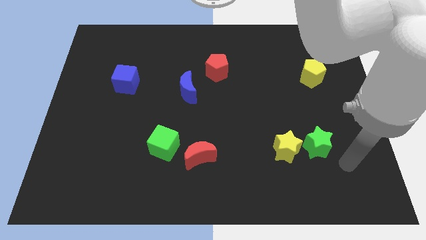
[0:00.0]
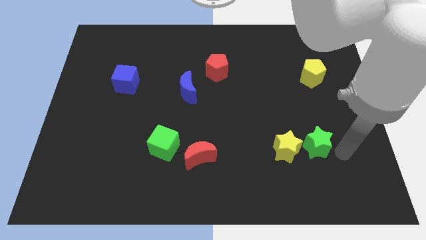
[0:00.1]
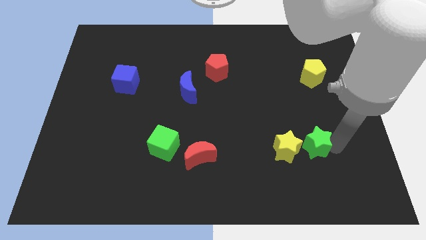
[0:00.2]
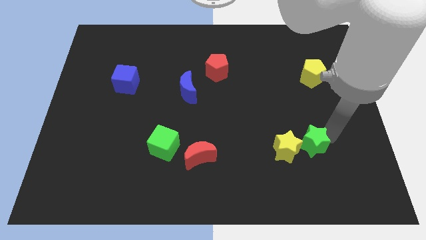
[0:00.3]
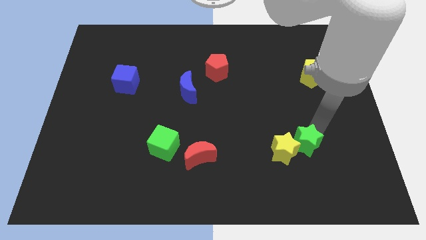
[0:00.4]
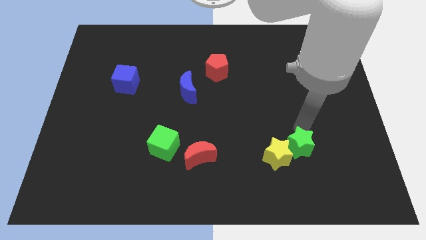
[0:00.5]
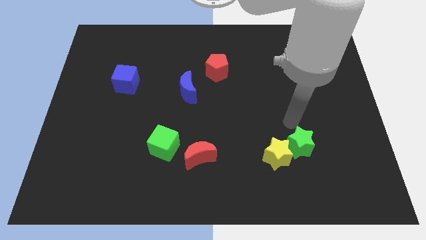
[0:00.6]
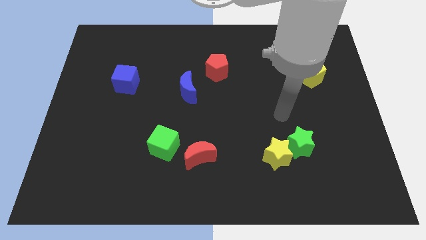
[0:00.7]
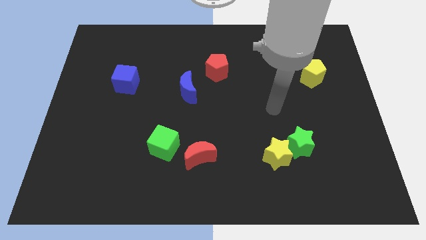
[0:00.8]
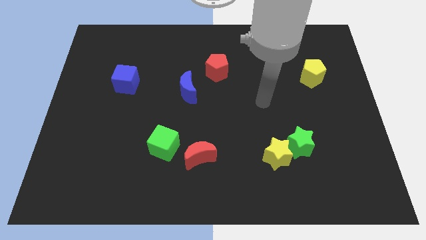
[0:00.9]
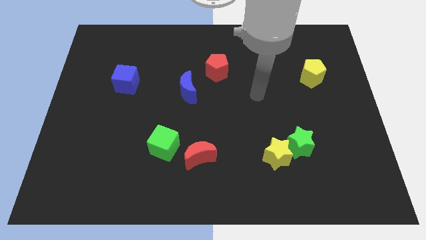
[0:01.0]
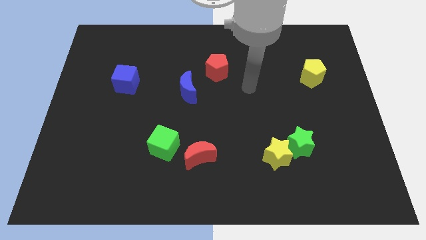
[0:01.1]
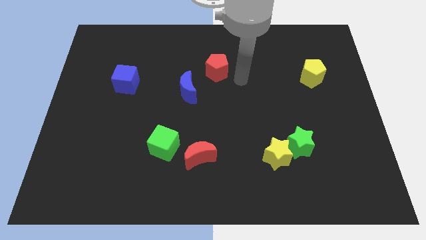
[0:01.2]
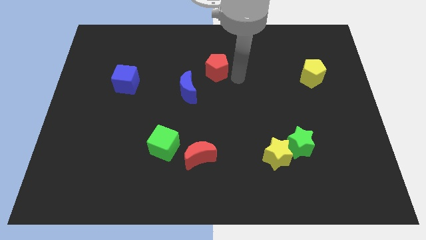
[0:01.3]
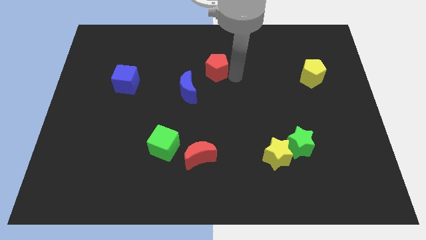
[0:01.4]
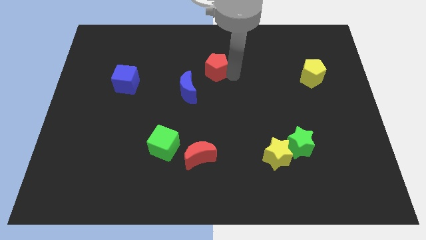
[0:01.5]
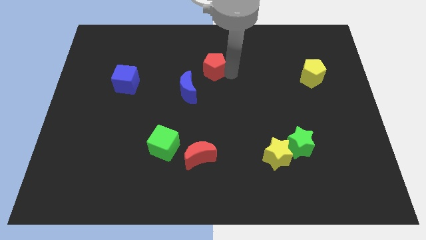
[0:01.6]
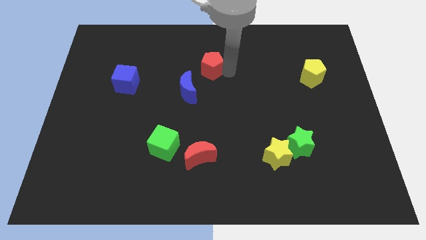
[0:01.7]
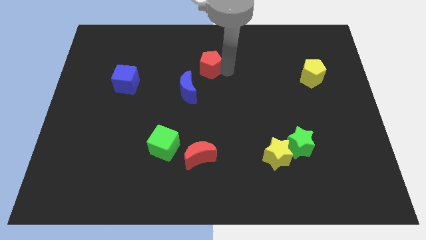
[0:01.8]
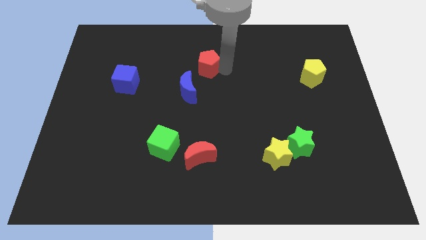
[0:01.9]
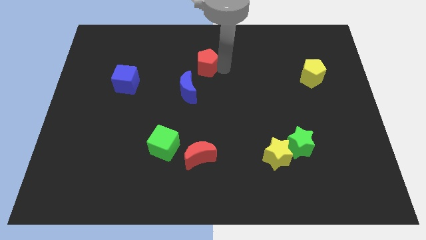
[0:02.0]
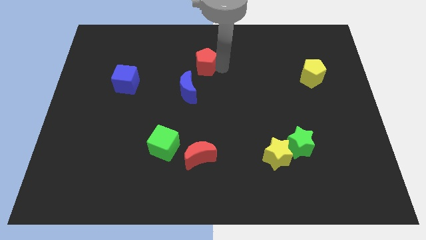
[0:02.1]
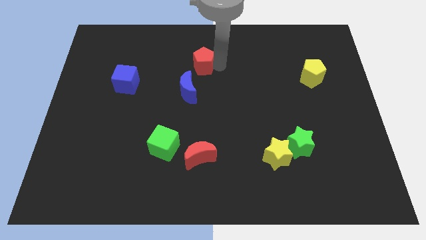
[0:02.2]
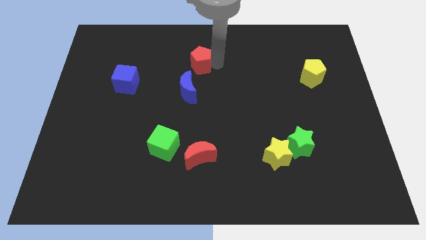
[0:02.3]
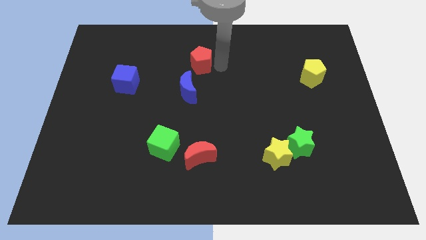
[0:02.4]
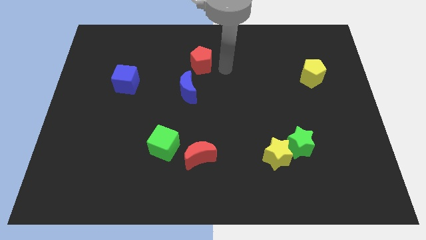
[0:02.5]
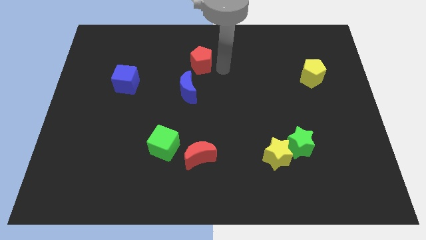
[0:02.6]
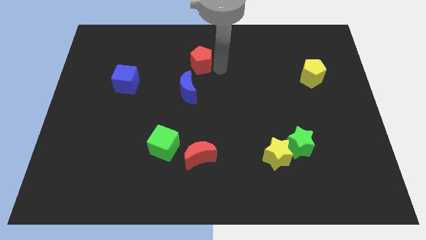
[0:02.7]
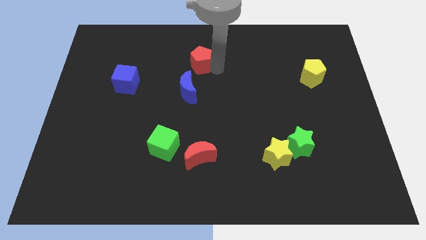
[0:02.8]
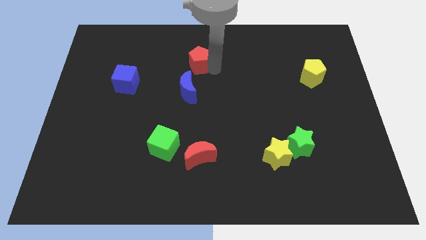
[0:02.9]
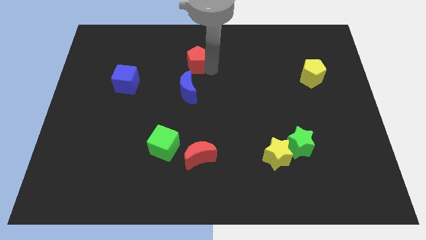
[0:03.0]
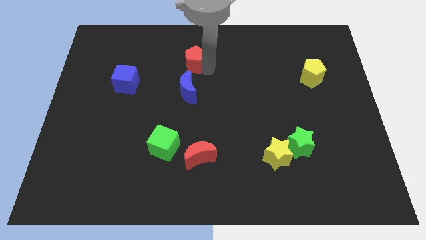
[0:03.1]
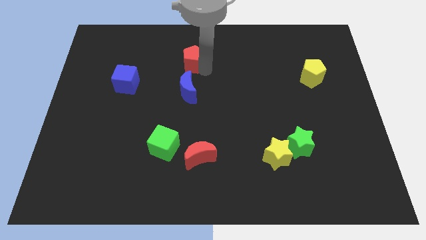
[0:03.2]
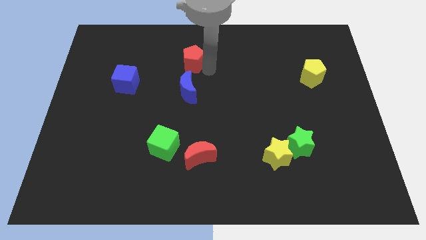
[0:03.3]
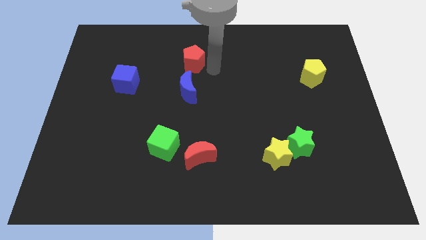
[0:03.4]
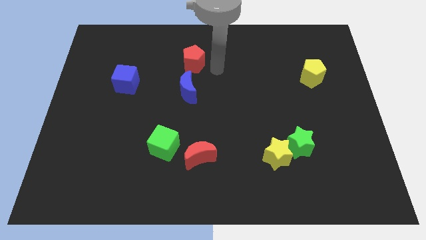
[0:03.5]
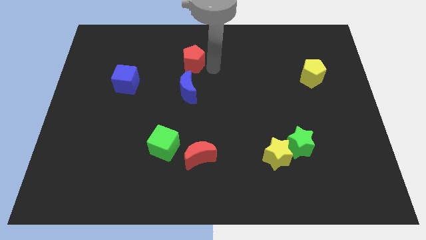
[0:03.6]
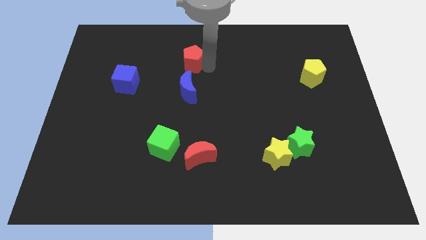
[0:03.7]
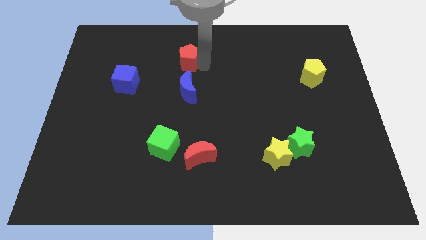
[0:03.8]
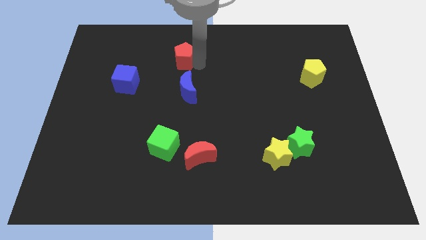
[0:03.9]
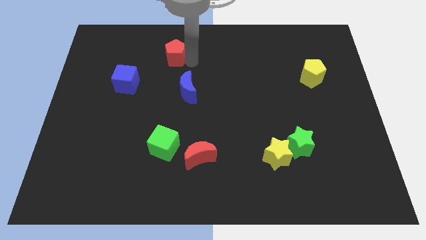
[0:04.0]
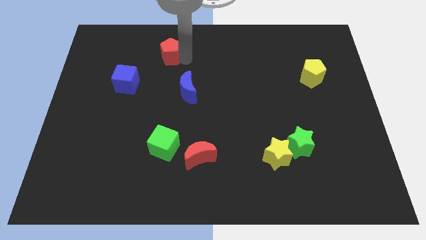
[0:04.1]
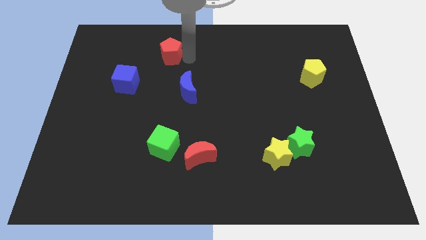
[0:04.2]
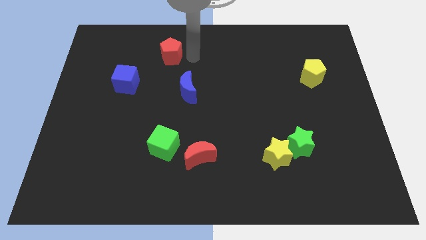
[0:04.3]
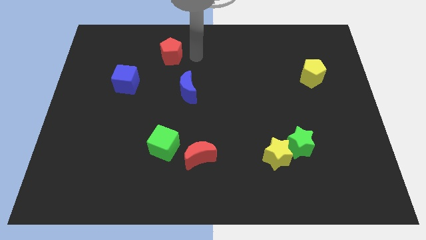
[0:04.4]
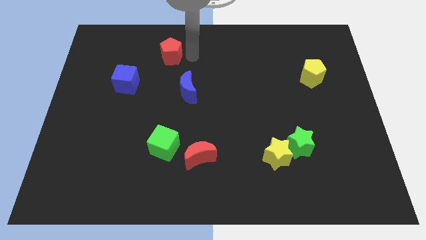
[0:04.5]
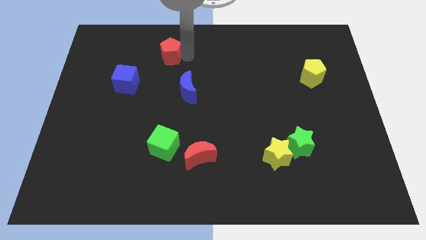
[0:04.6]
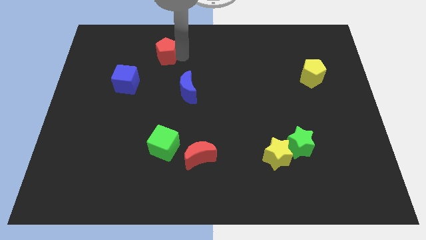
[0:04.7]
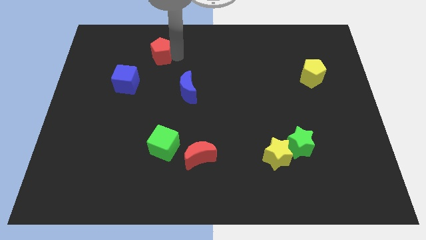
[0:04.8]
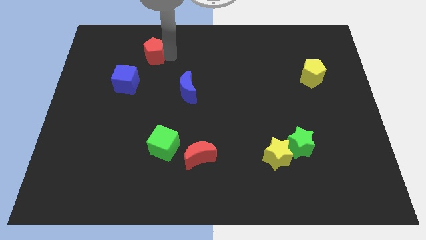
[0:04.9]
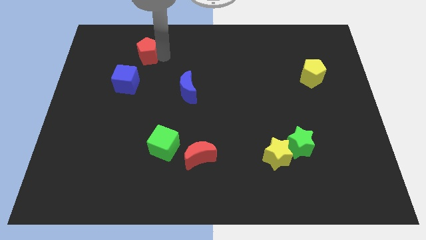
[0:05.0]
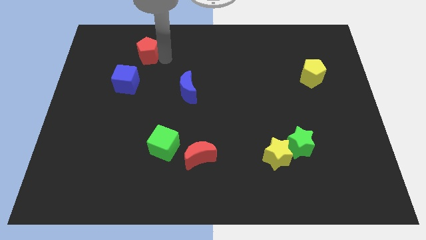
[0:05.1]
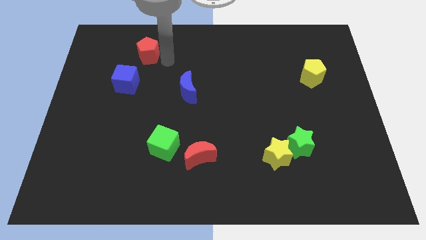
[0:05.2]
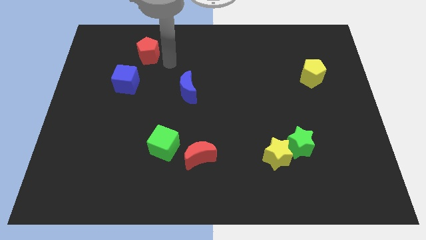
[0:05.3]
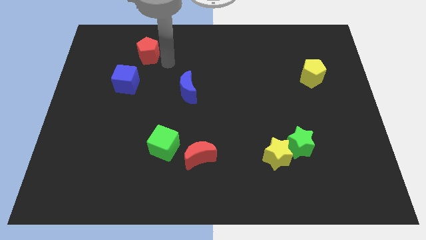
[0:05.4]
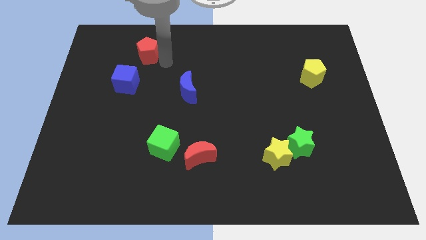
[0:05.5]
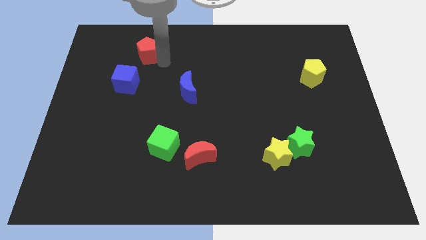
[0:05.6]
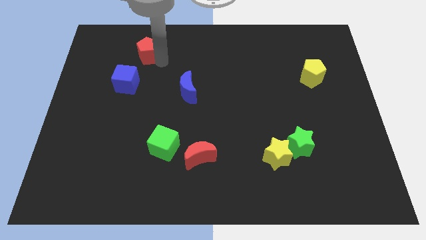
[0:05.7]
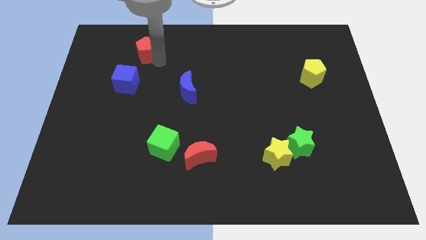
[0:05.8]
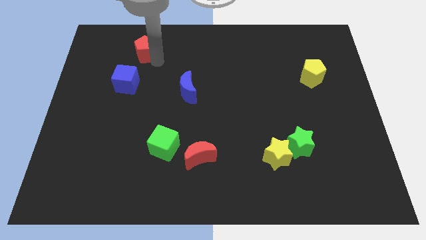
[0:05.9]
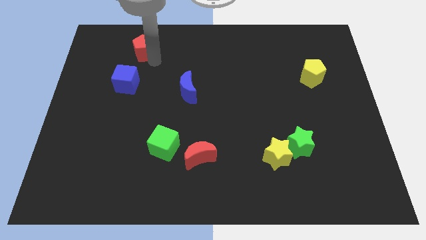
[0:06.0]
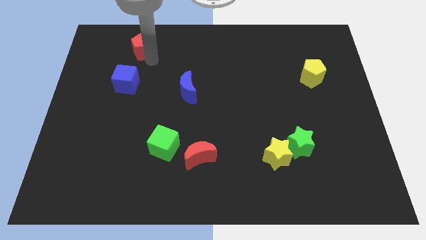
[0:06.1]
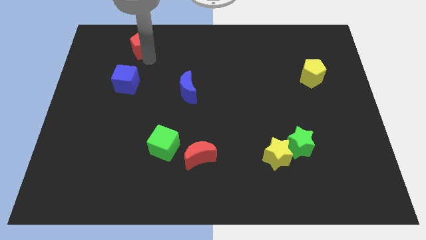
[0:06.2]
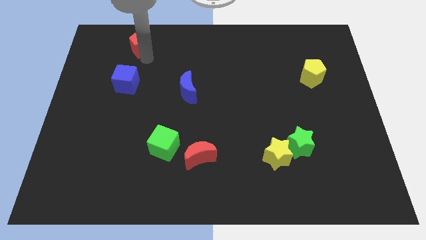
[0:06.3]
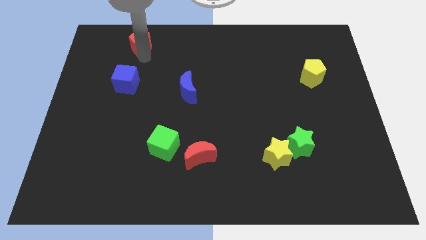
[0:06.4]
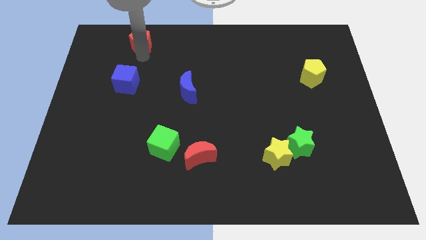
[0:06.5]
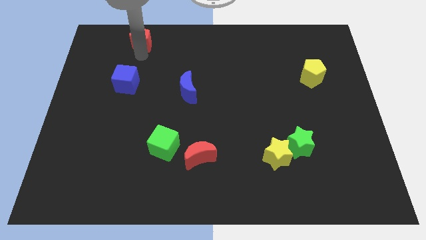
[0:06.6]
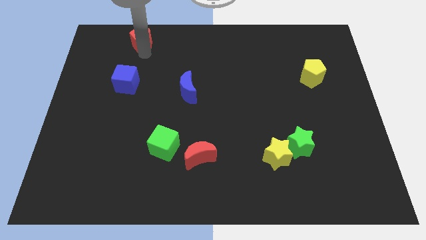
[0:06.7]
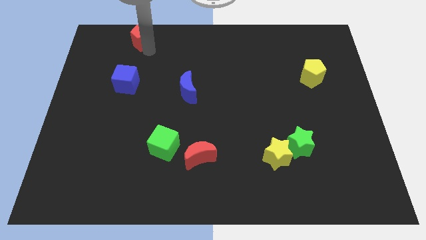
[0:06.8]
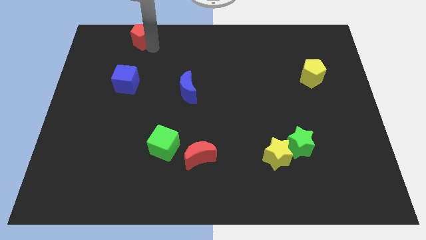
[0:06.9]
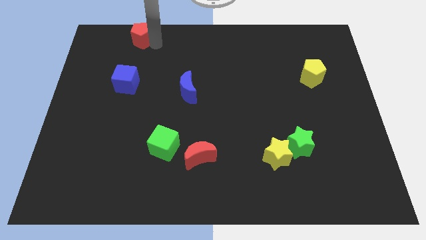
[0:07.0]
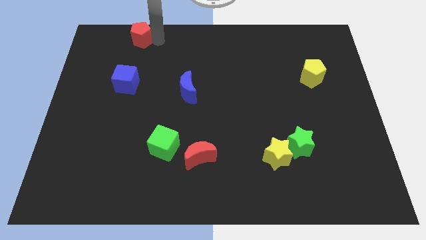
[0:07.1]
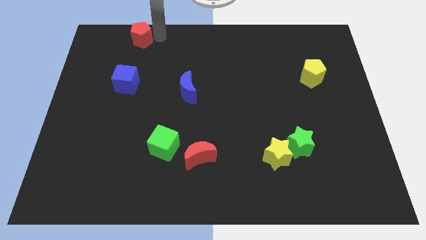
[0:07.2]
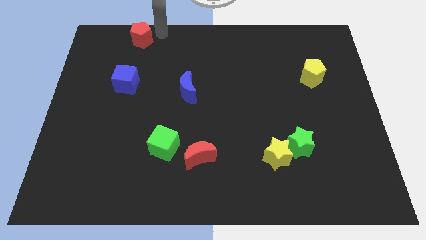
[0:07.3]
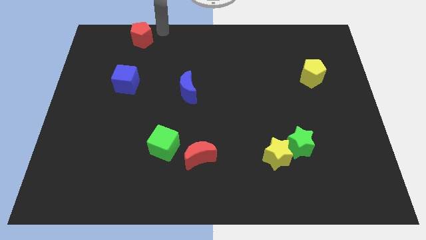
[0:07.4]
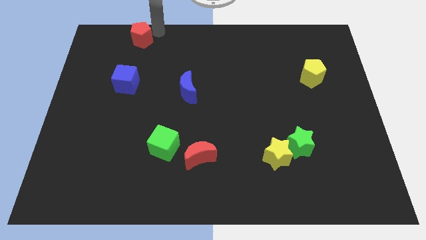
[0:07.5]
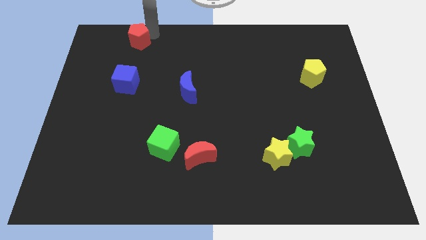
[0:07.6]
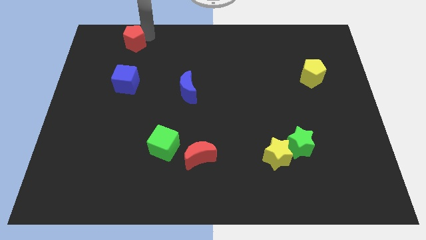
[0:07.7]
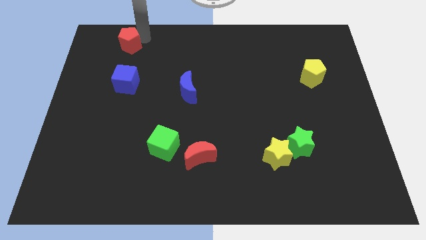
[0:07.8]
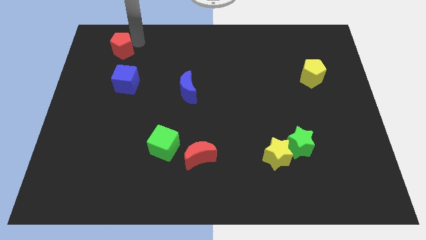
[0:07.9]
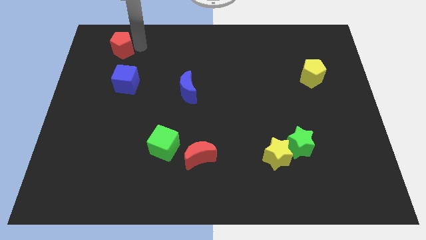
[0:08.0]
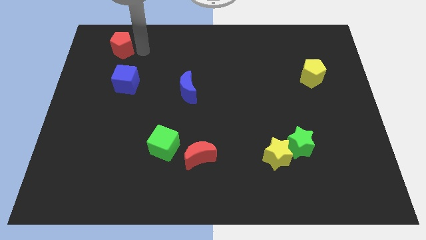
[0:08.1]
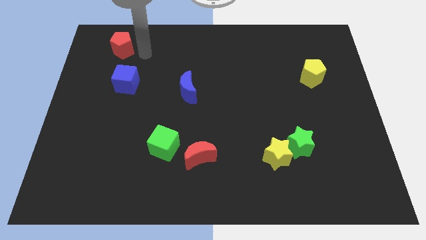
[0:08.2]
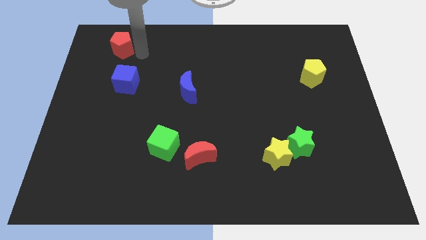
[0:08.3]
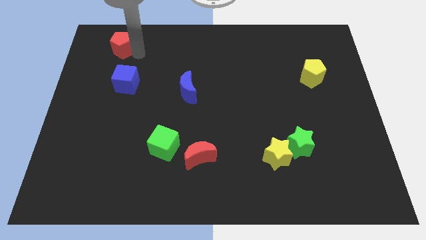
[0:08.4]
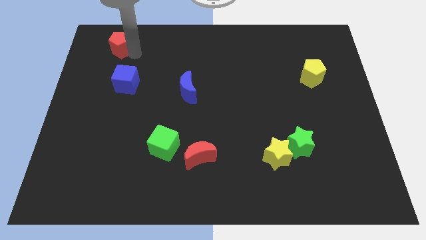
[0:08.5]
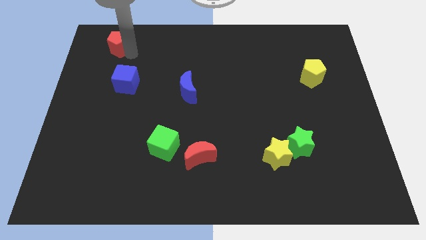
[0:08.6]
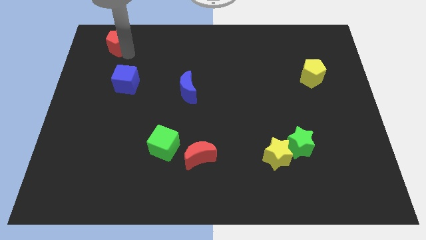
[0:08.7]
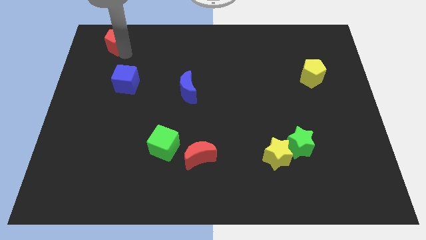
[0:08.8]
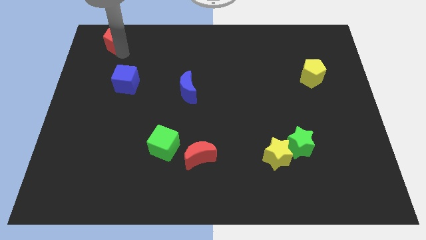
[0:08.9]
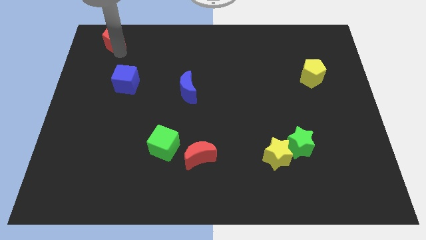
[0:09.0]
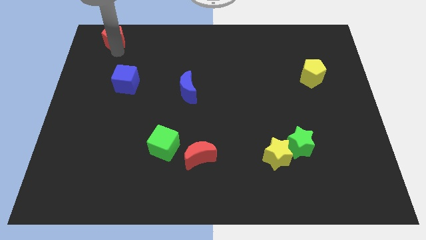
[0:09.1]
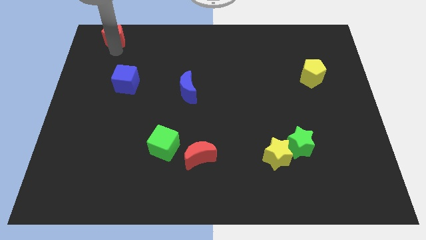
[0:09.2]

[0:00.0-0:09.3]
put the red pentagon to the upper left corner
